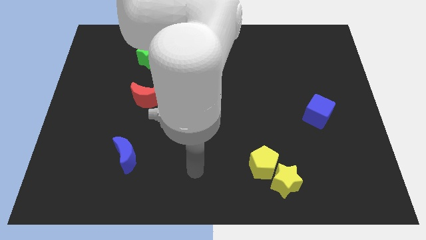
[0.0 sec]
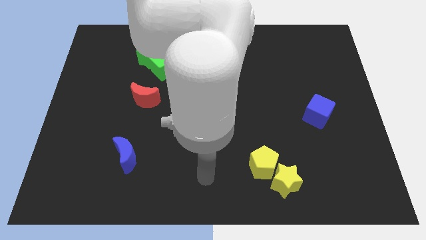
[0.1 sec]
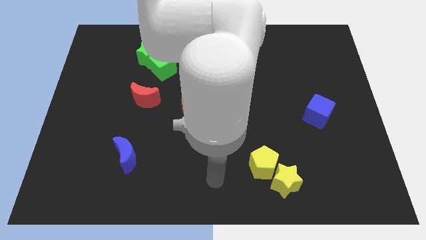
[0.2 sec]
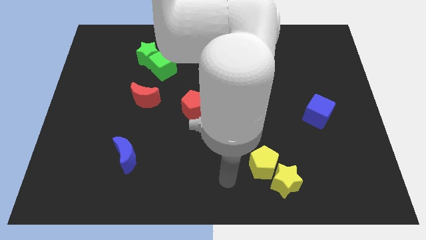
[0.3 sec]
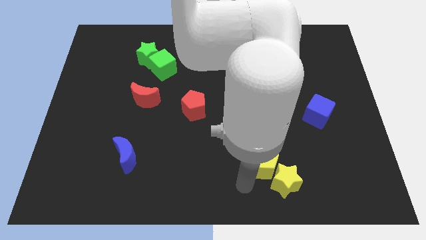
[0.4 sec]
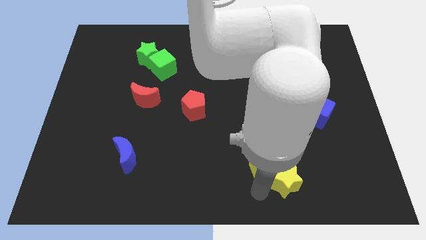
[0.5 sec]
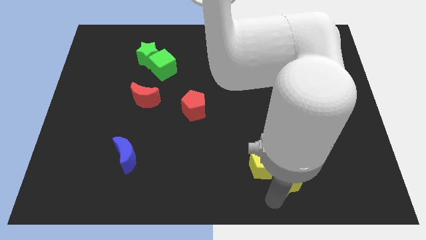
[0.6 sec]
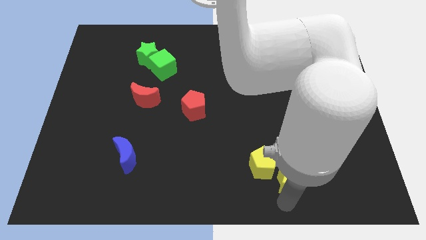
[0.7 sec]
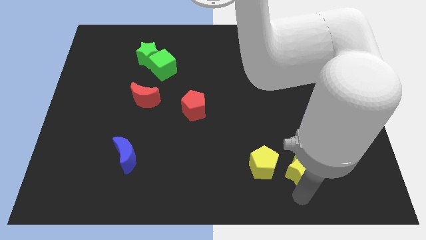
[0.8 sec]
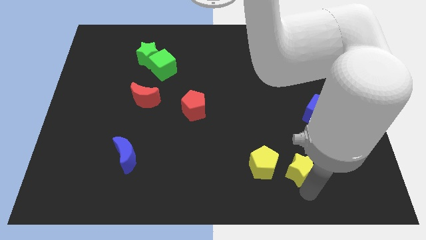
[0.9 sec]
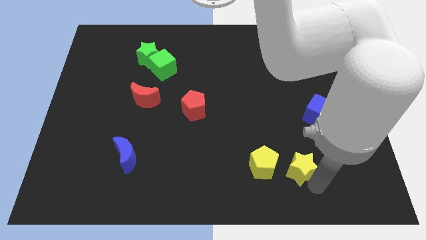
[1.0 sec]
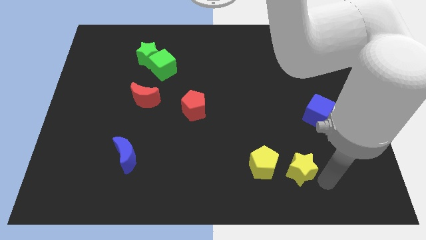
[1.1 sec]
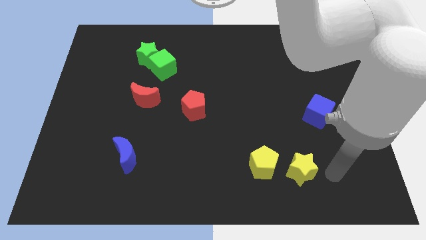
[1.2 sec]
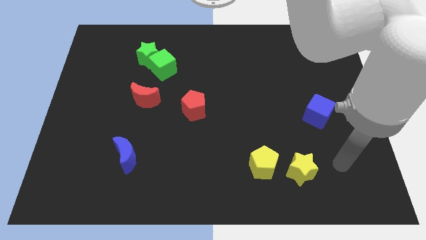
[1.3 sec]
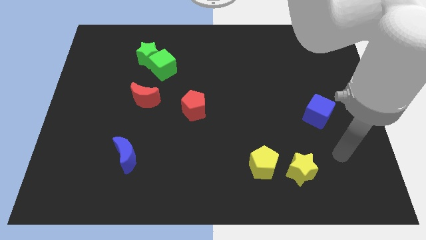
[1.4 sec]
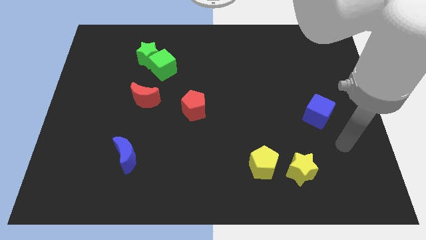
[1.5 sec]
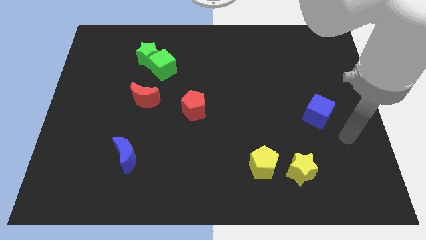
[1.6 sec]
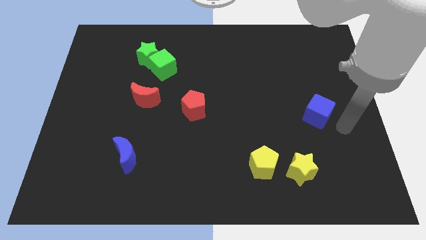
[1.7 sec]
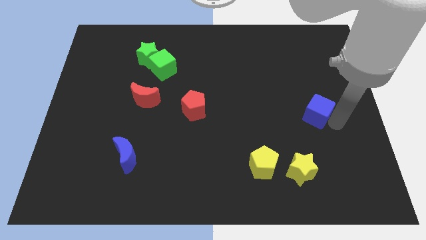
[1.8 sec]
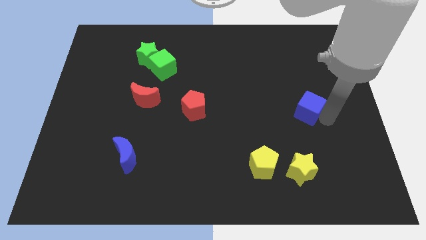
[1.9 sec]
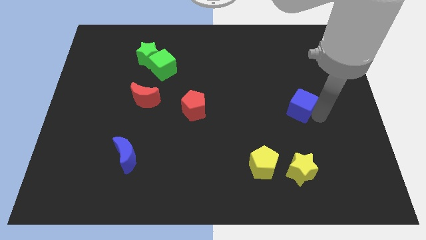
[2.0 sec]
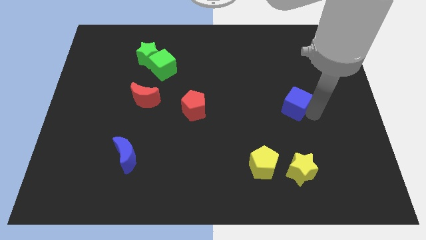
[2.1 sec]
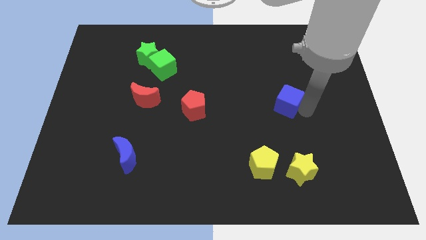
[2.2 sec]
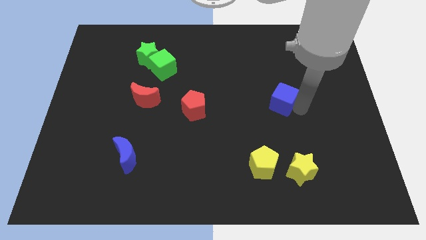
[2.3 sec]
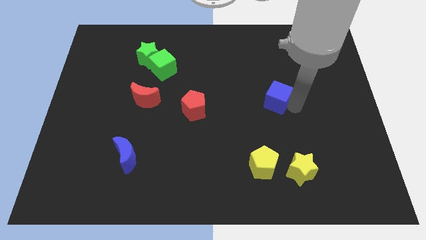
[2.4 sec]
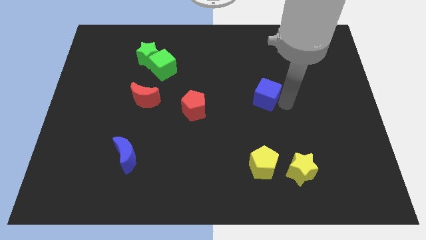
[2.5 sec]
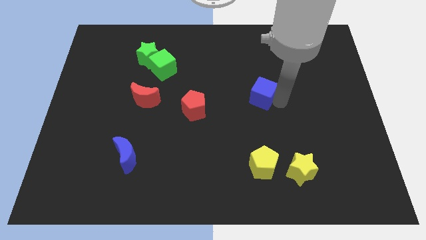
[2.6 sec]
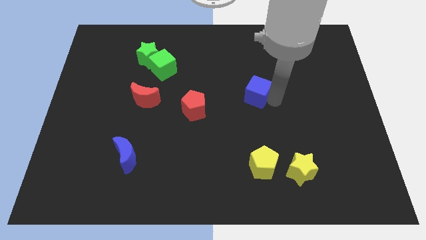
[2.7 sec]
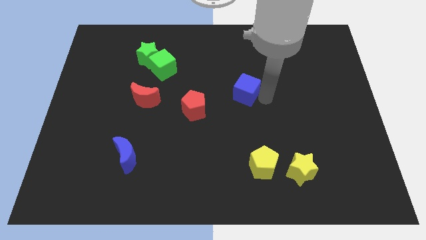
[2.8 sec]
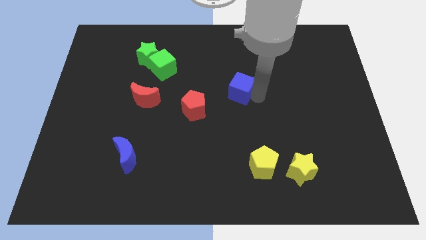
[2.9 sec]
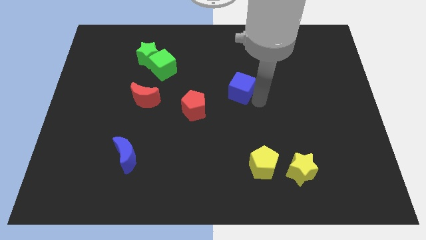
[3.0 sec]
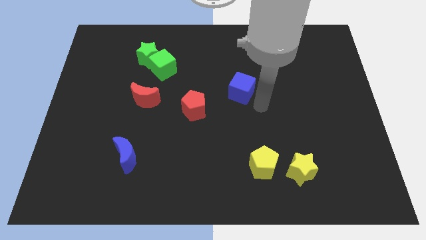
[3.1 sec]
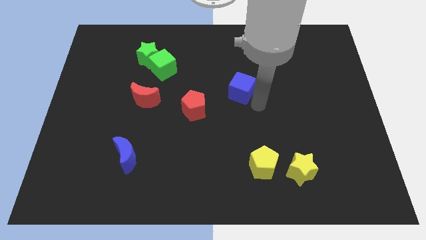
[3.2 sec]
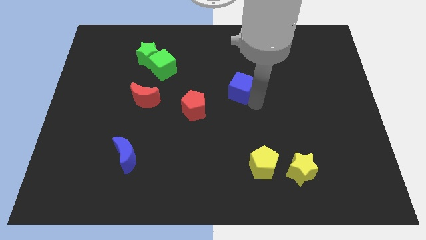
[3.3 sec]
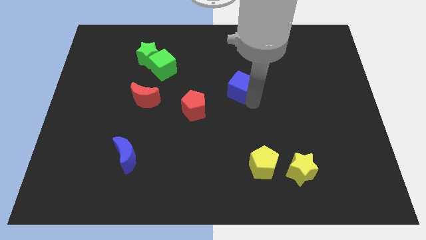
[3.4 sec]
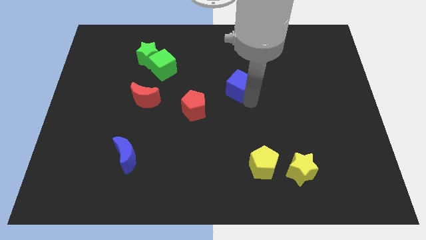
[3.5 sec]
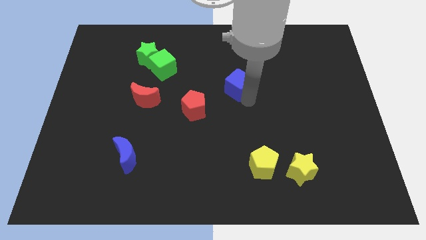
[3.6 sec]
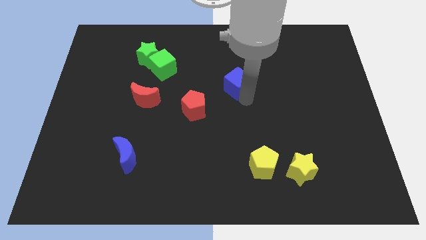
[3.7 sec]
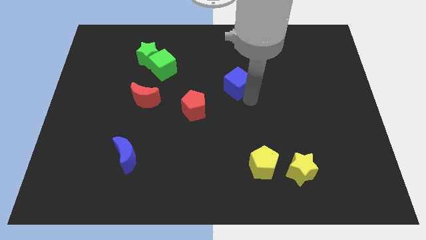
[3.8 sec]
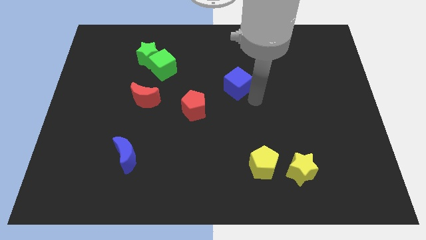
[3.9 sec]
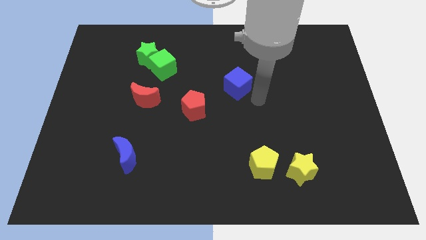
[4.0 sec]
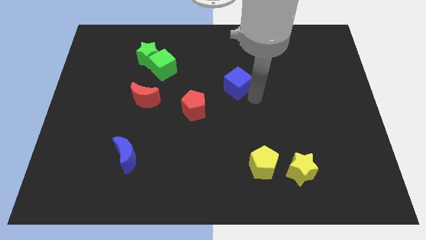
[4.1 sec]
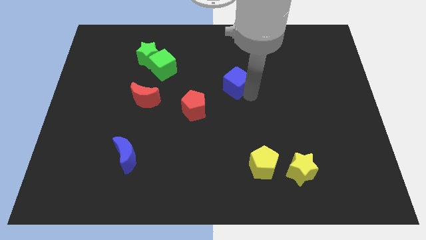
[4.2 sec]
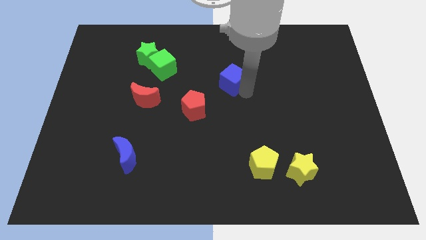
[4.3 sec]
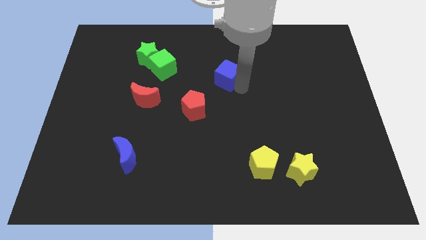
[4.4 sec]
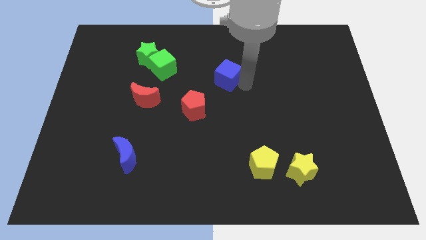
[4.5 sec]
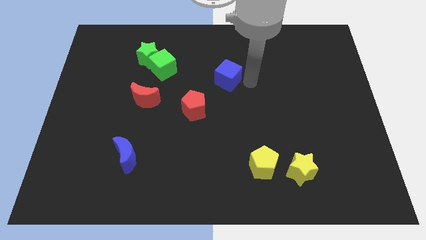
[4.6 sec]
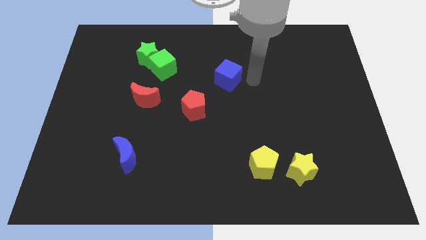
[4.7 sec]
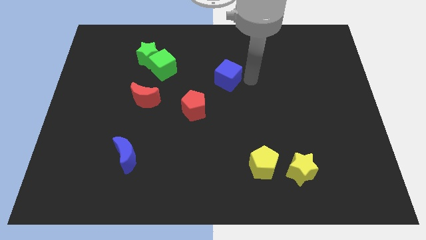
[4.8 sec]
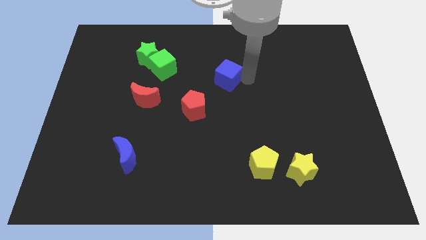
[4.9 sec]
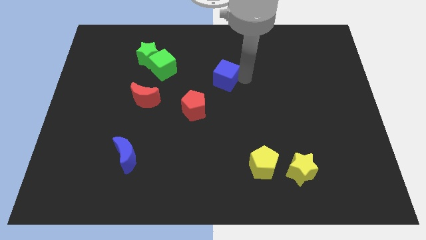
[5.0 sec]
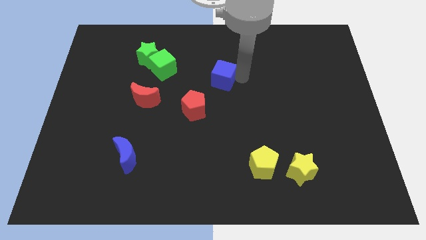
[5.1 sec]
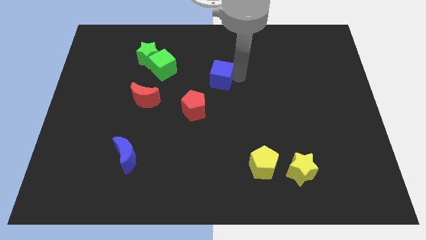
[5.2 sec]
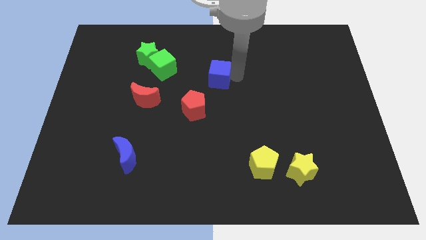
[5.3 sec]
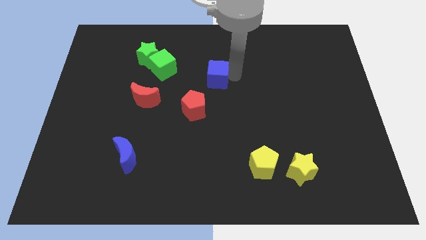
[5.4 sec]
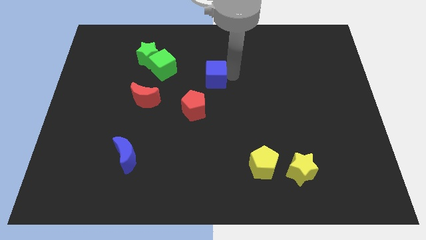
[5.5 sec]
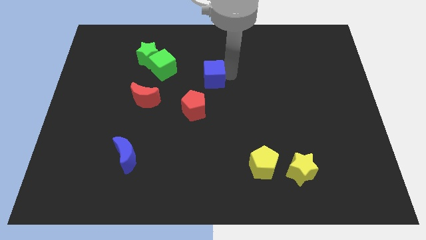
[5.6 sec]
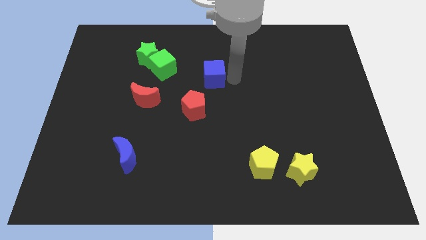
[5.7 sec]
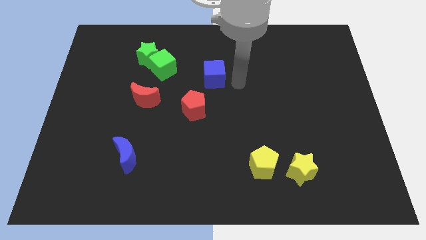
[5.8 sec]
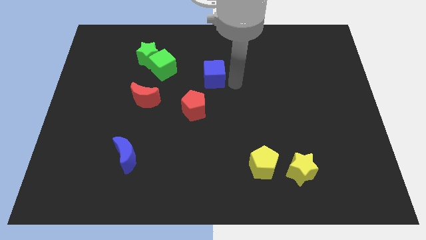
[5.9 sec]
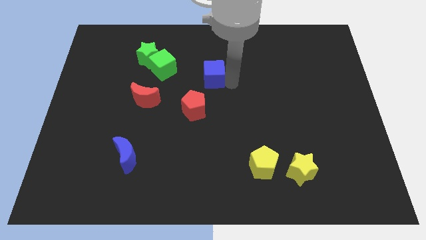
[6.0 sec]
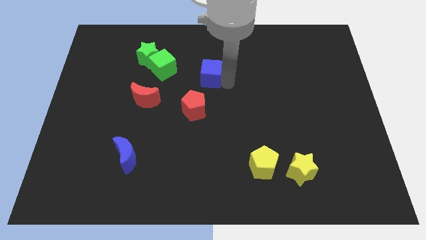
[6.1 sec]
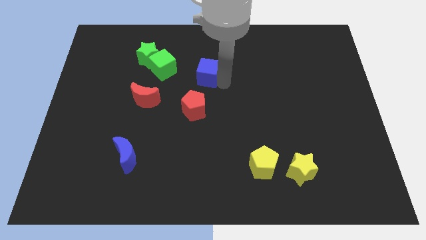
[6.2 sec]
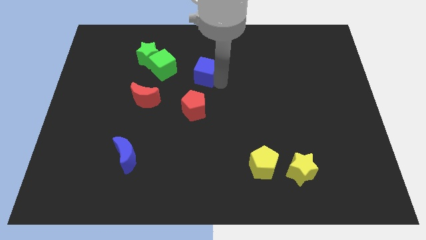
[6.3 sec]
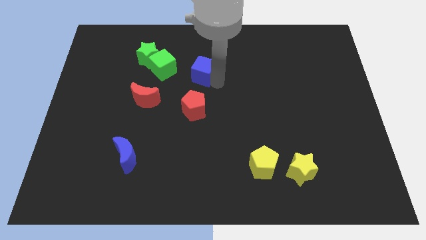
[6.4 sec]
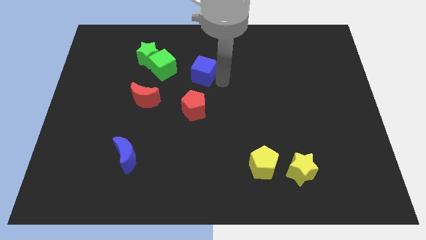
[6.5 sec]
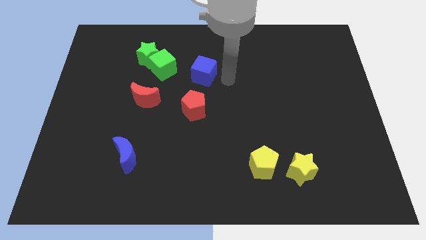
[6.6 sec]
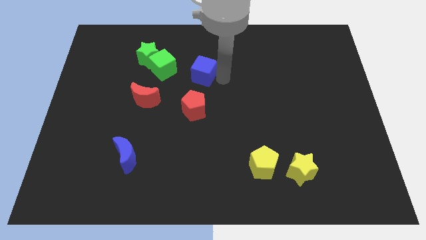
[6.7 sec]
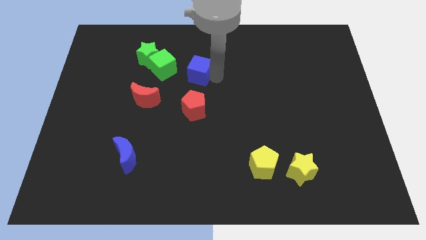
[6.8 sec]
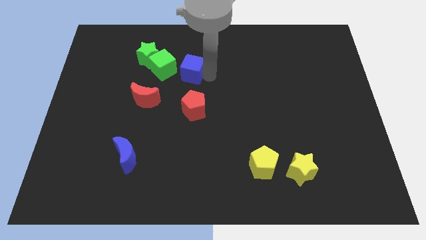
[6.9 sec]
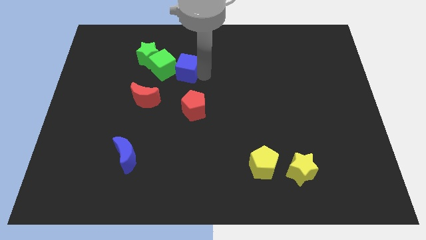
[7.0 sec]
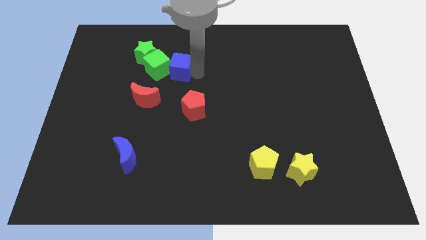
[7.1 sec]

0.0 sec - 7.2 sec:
put the blue cube towards the green cube
